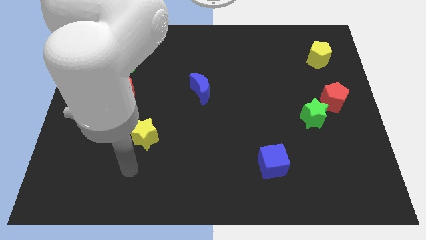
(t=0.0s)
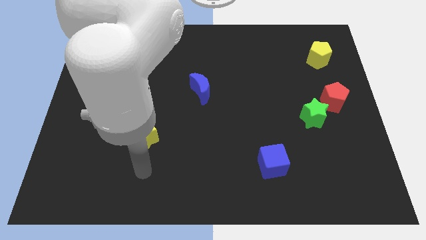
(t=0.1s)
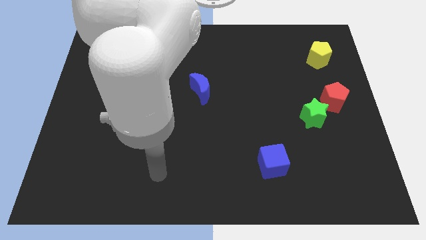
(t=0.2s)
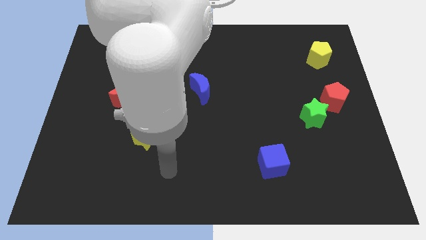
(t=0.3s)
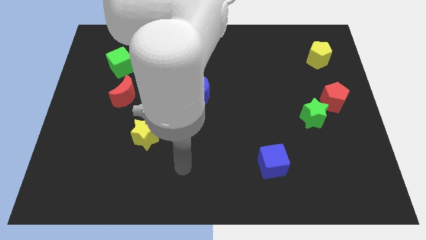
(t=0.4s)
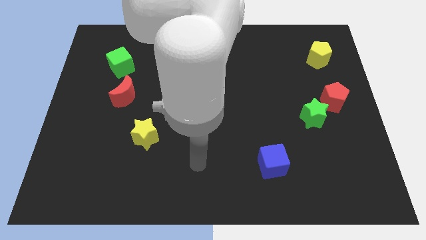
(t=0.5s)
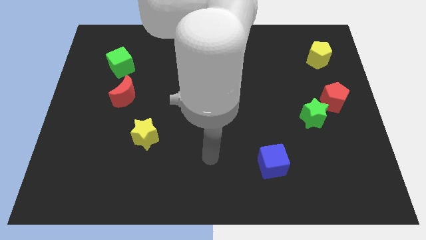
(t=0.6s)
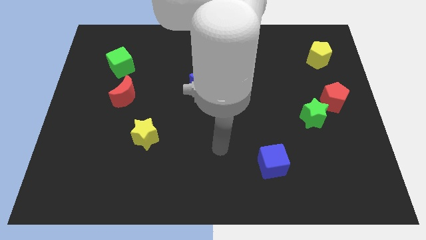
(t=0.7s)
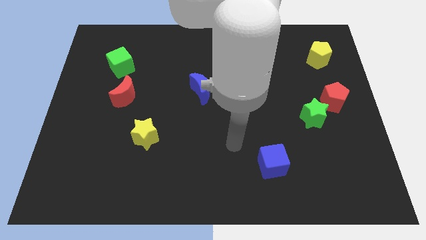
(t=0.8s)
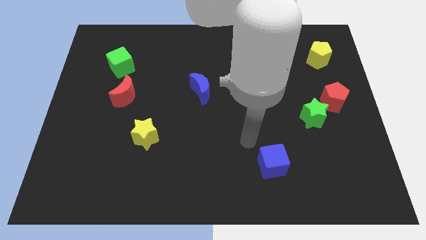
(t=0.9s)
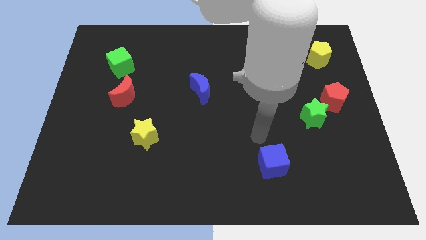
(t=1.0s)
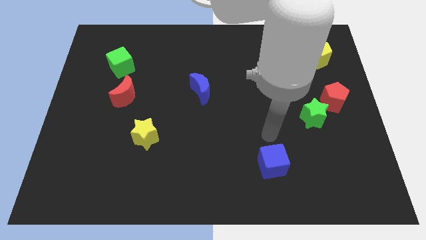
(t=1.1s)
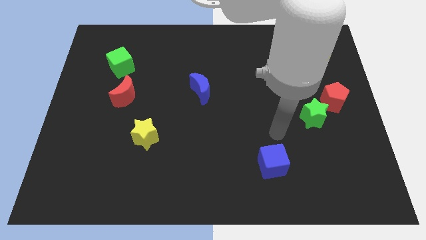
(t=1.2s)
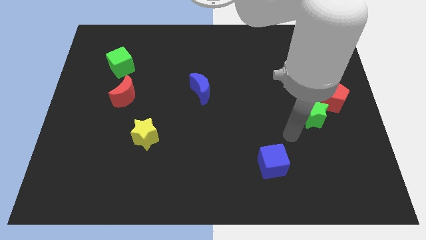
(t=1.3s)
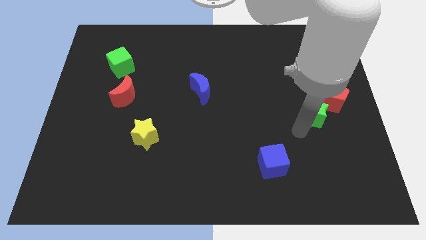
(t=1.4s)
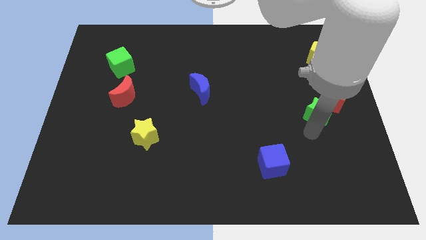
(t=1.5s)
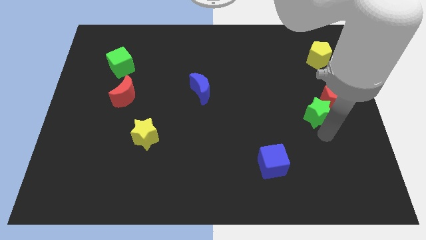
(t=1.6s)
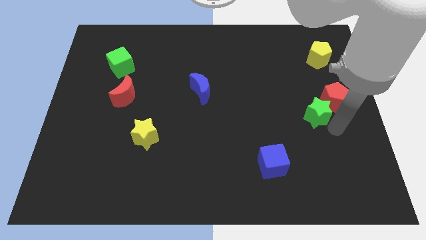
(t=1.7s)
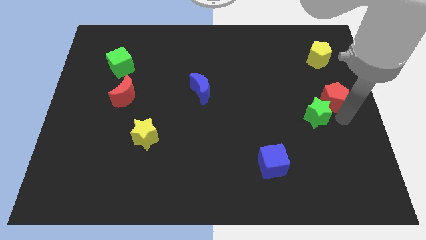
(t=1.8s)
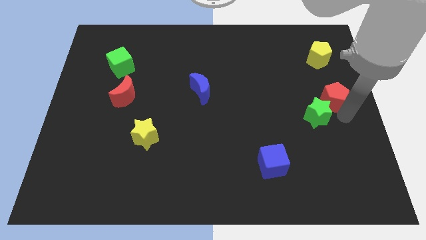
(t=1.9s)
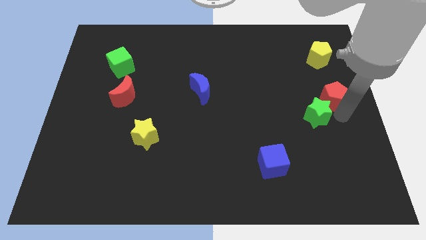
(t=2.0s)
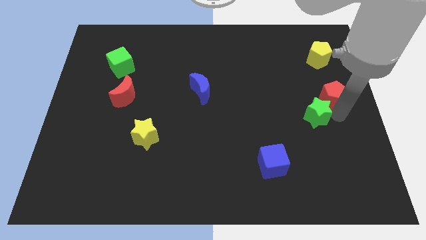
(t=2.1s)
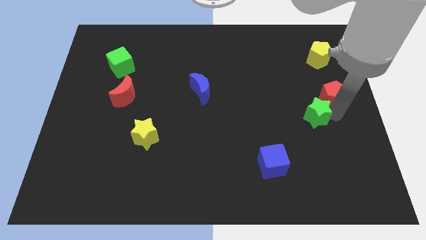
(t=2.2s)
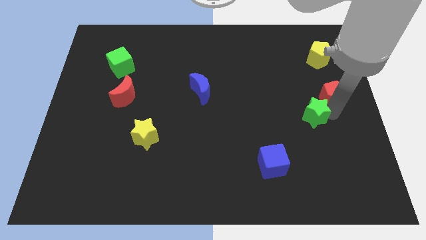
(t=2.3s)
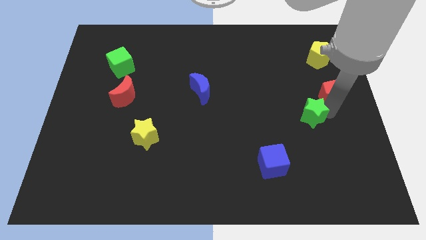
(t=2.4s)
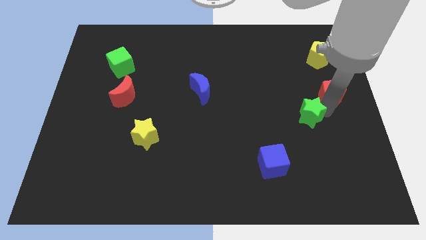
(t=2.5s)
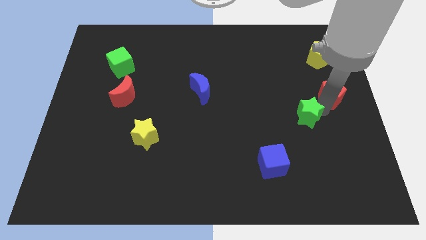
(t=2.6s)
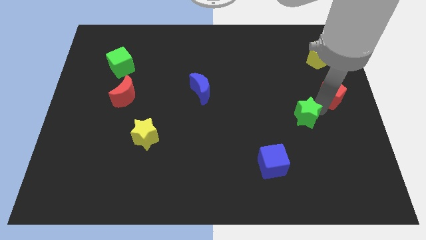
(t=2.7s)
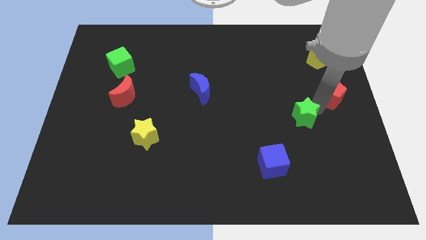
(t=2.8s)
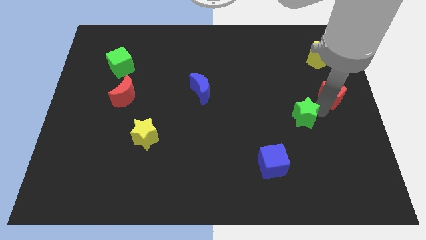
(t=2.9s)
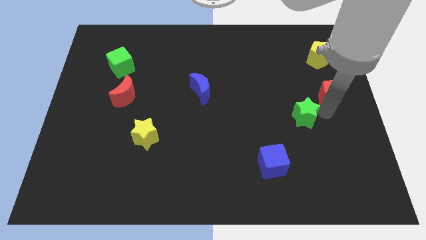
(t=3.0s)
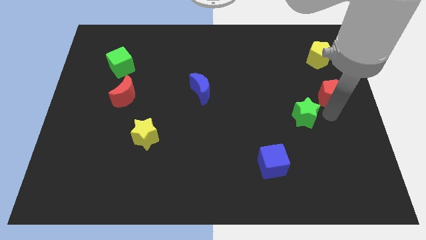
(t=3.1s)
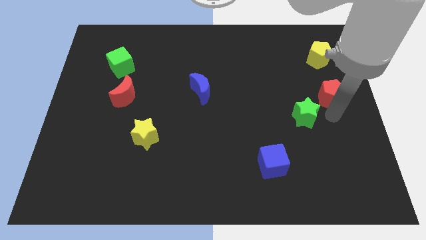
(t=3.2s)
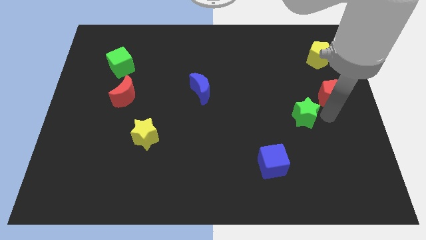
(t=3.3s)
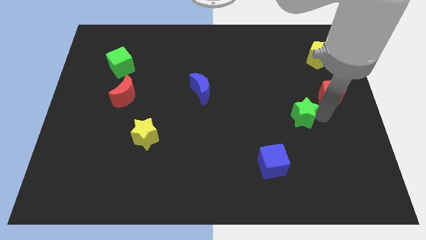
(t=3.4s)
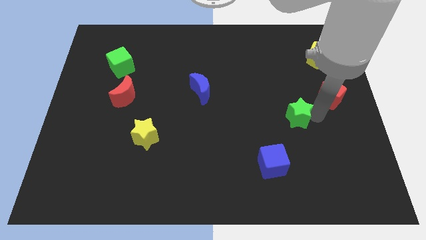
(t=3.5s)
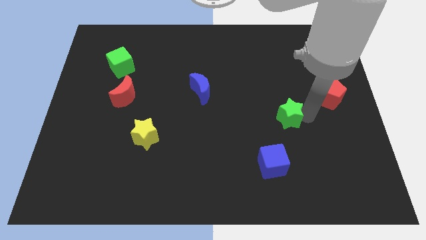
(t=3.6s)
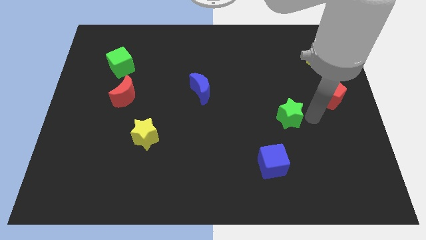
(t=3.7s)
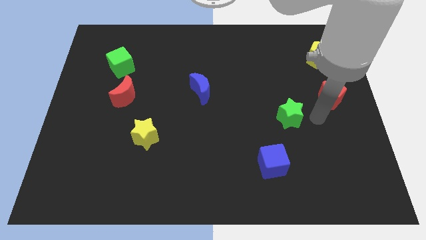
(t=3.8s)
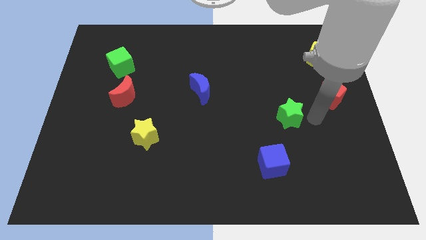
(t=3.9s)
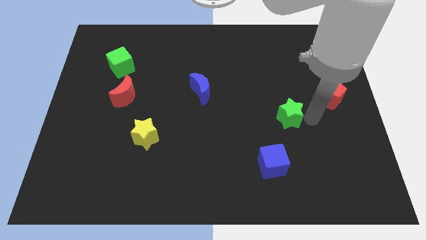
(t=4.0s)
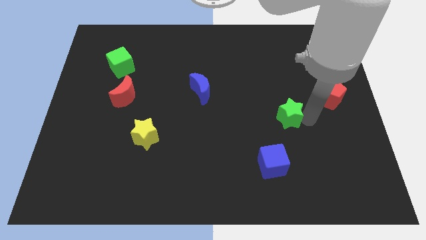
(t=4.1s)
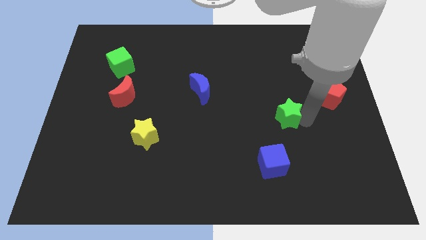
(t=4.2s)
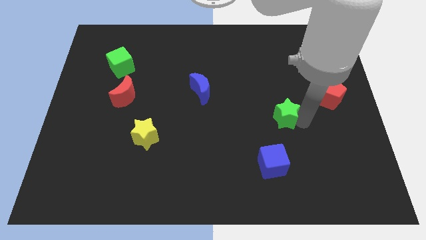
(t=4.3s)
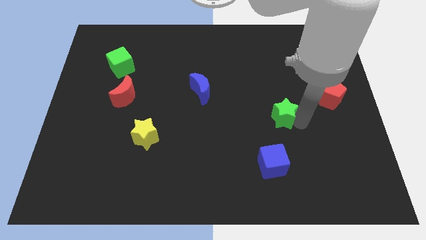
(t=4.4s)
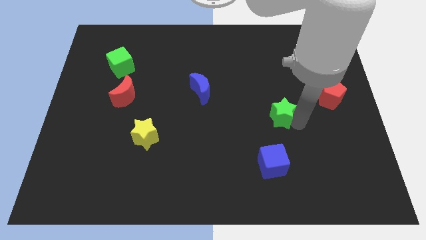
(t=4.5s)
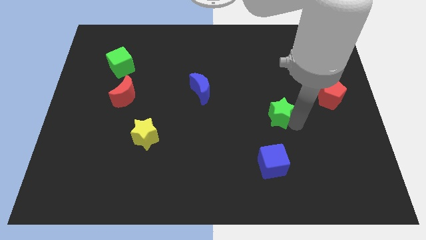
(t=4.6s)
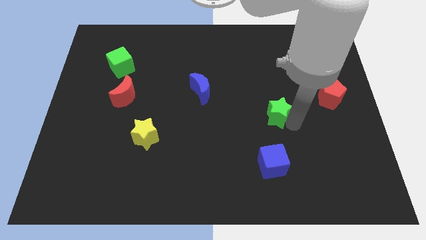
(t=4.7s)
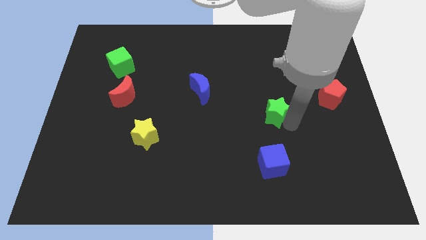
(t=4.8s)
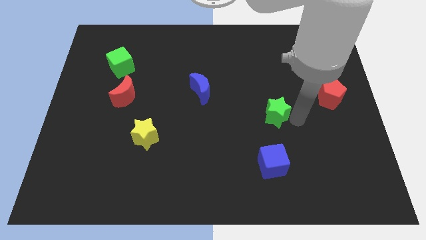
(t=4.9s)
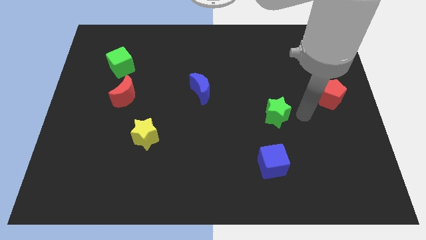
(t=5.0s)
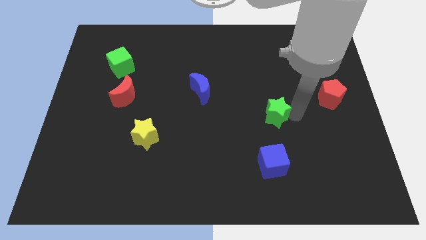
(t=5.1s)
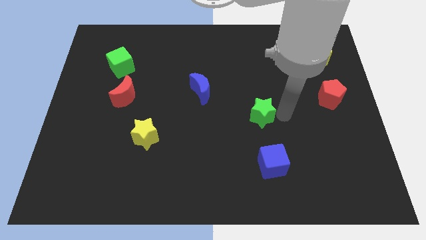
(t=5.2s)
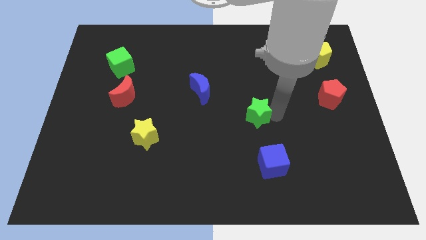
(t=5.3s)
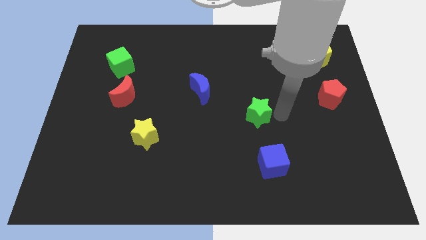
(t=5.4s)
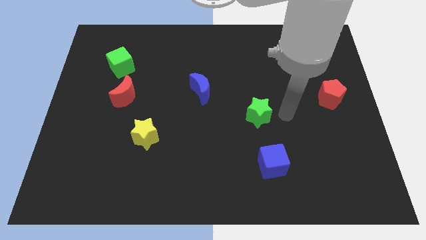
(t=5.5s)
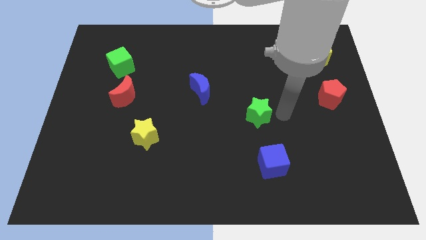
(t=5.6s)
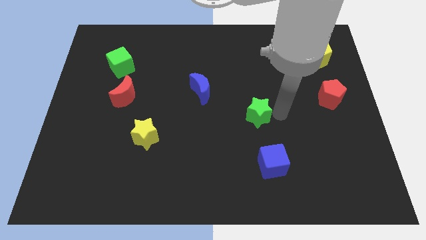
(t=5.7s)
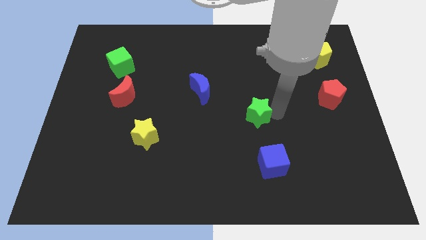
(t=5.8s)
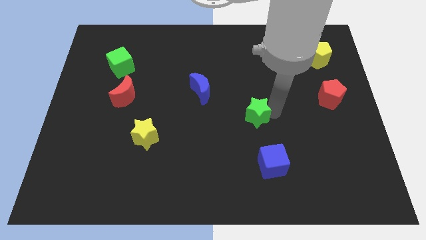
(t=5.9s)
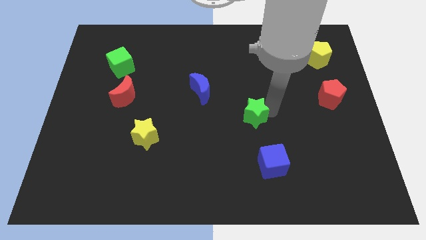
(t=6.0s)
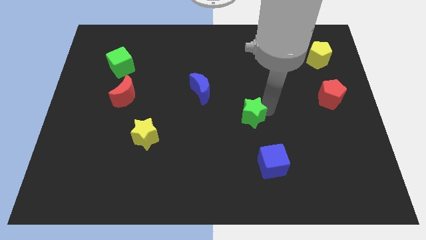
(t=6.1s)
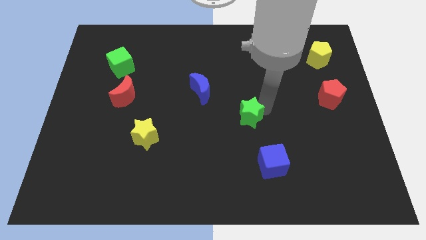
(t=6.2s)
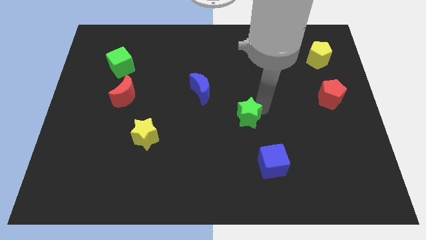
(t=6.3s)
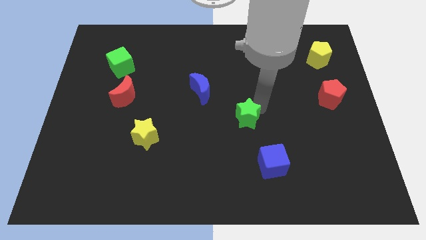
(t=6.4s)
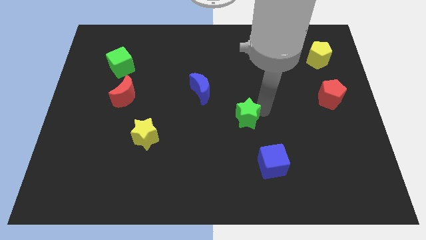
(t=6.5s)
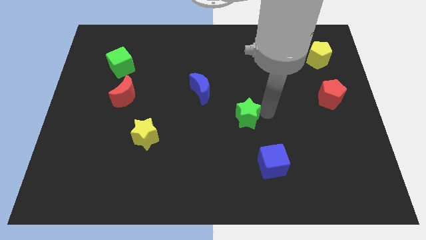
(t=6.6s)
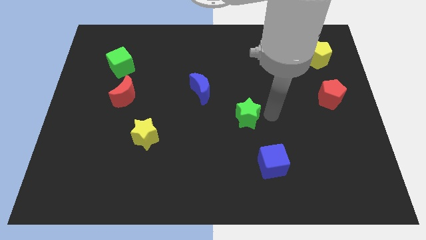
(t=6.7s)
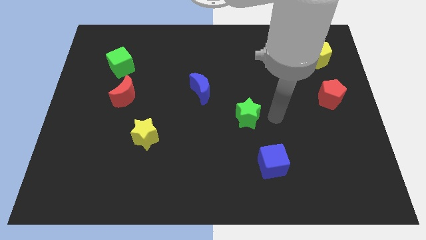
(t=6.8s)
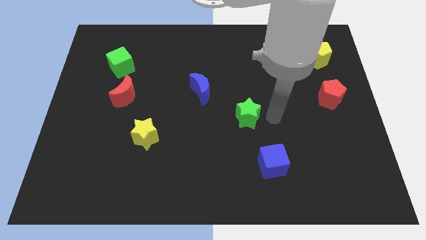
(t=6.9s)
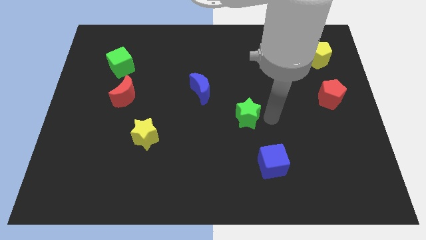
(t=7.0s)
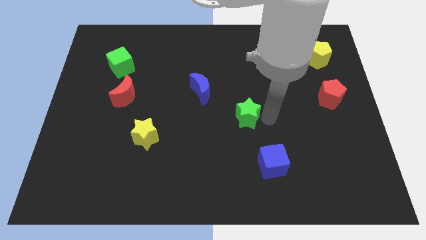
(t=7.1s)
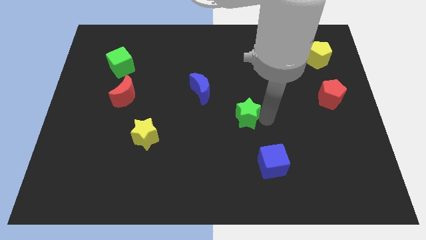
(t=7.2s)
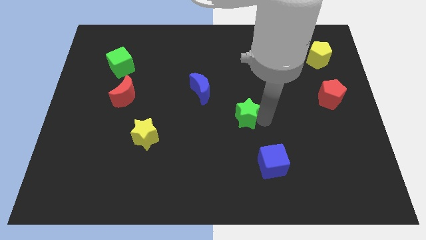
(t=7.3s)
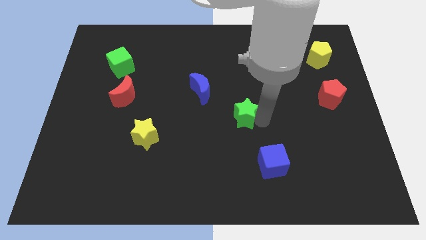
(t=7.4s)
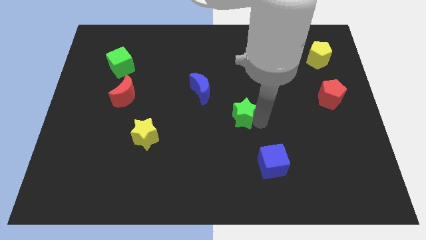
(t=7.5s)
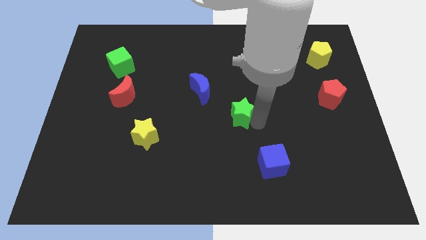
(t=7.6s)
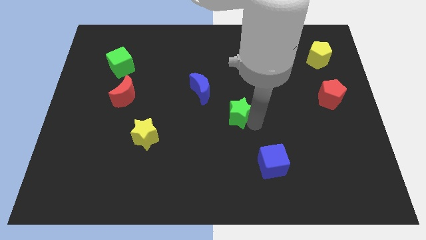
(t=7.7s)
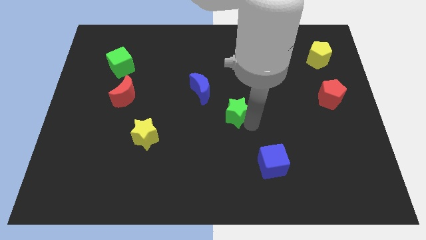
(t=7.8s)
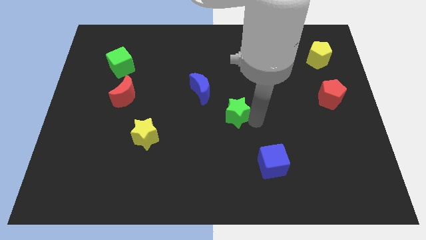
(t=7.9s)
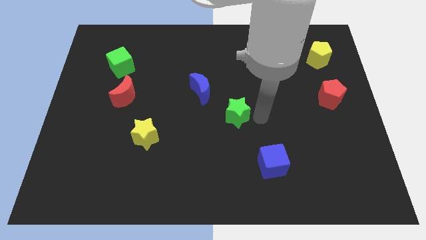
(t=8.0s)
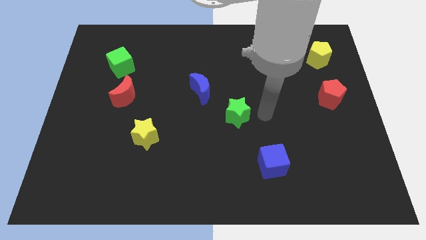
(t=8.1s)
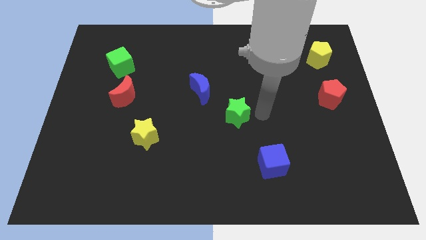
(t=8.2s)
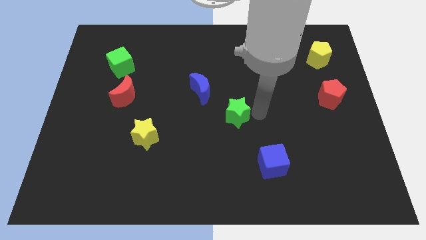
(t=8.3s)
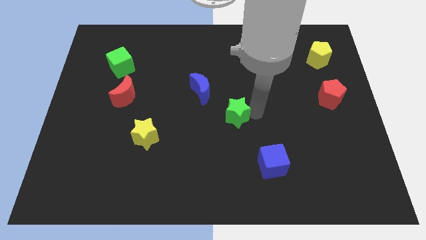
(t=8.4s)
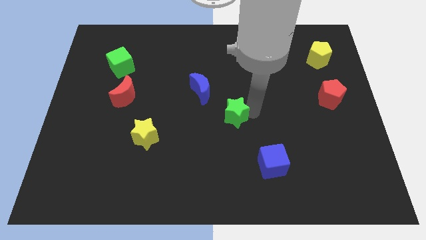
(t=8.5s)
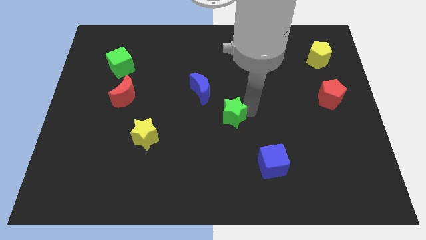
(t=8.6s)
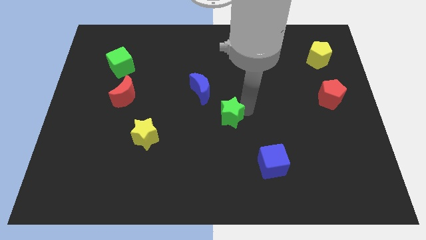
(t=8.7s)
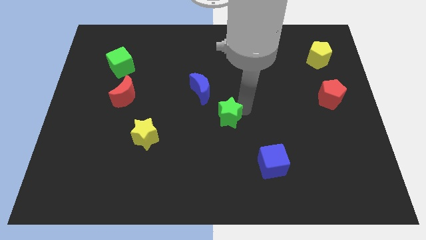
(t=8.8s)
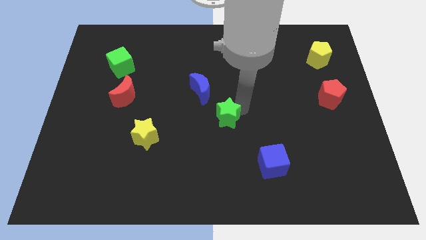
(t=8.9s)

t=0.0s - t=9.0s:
move the green star to the left
